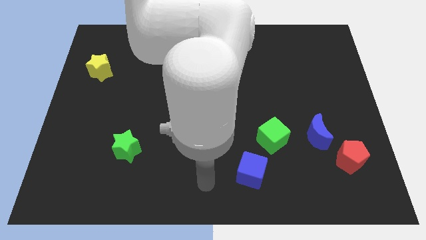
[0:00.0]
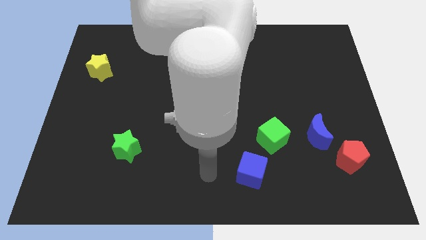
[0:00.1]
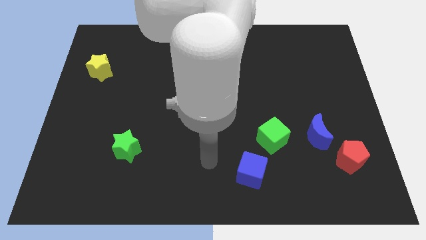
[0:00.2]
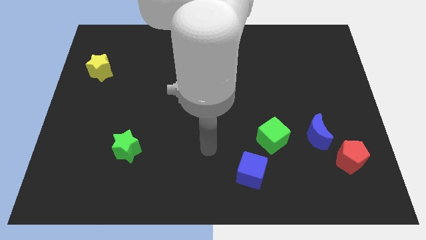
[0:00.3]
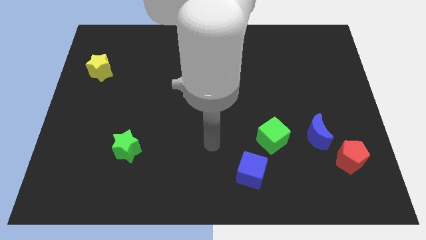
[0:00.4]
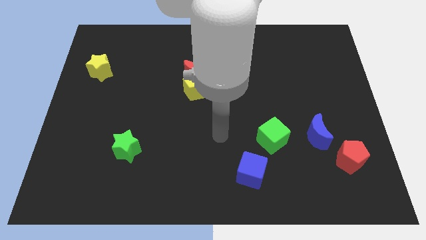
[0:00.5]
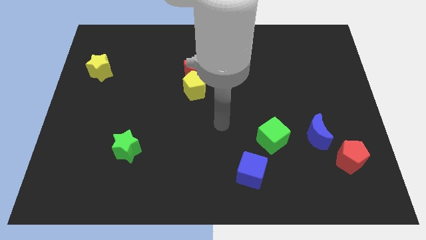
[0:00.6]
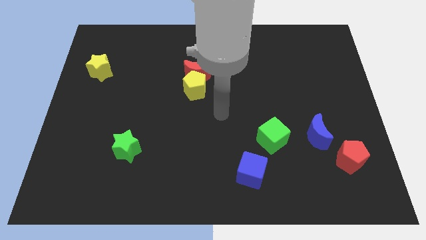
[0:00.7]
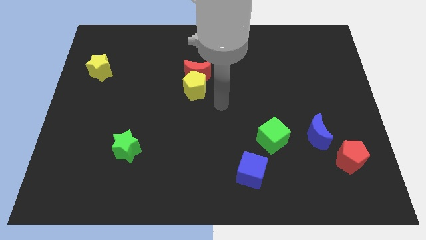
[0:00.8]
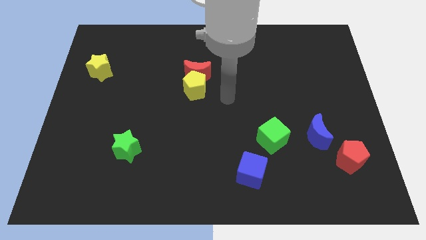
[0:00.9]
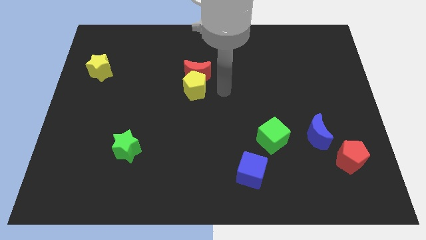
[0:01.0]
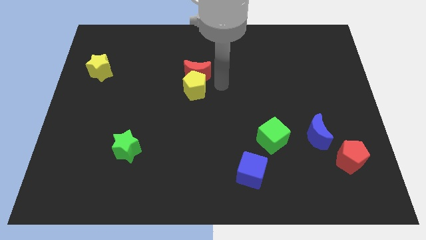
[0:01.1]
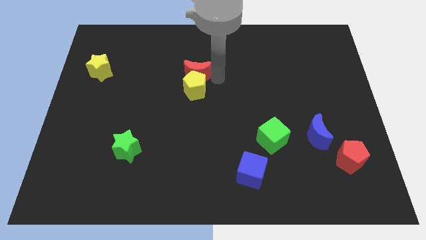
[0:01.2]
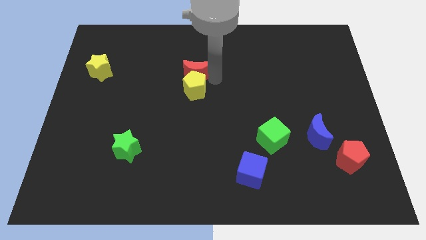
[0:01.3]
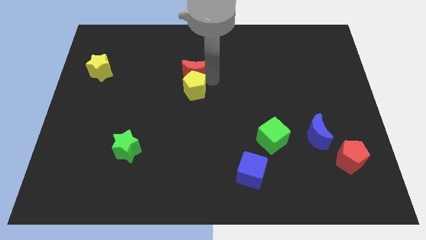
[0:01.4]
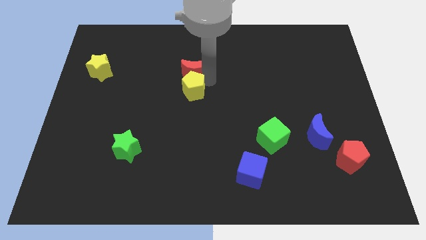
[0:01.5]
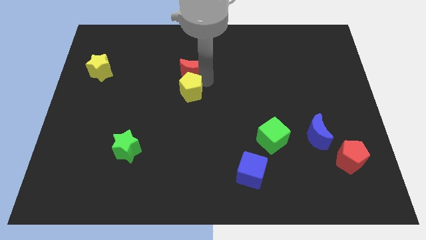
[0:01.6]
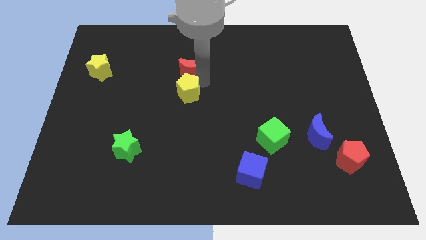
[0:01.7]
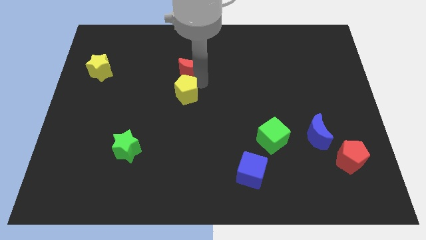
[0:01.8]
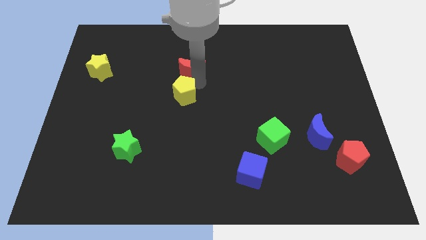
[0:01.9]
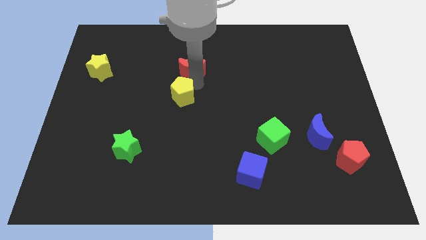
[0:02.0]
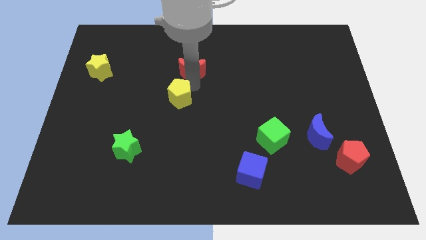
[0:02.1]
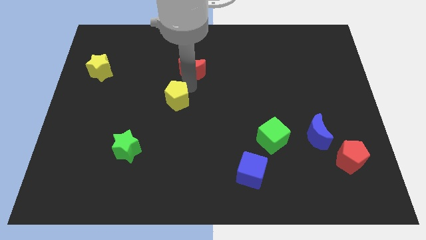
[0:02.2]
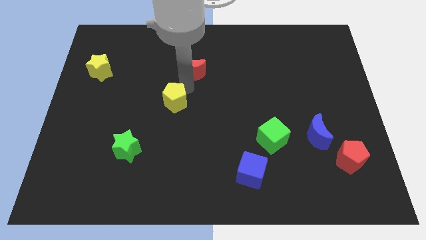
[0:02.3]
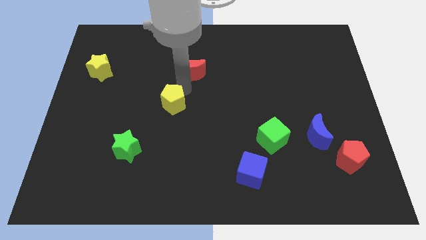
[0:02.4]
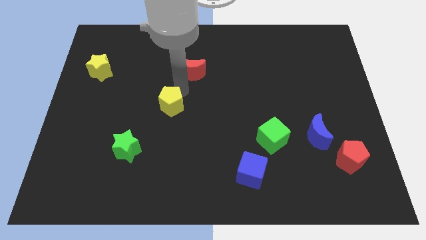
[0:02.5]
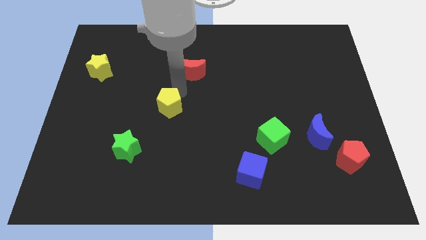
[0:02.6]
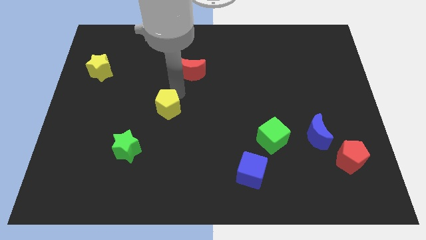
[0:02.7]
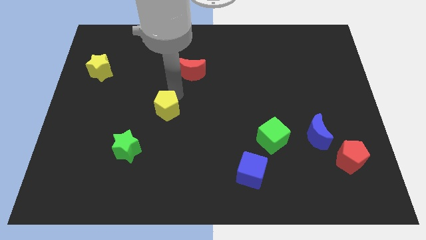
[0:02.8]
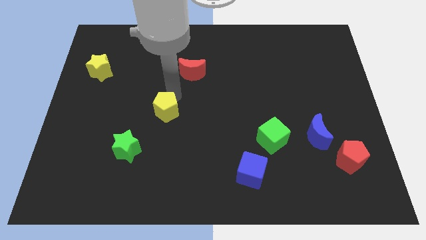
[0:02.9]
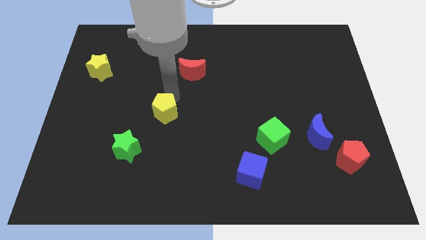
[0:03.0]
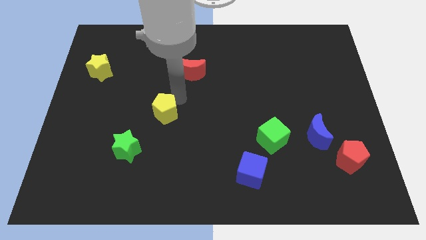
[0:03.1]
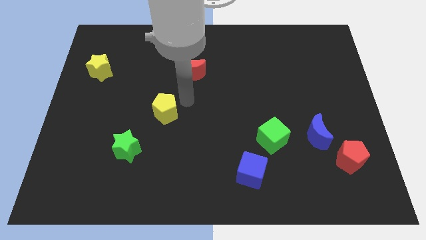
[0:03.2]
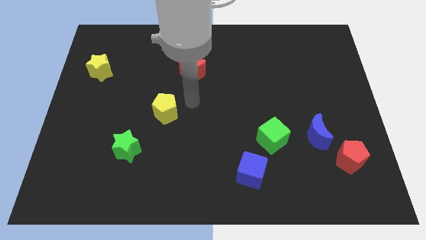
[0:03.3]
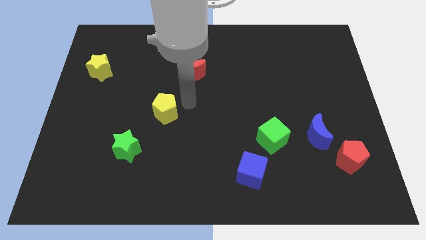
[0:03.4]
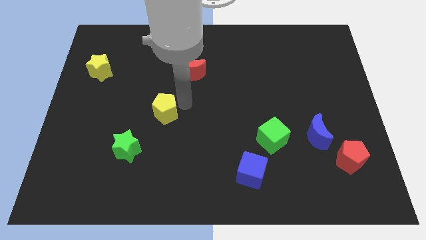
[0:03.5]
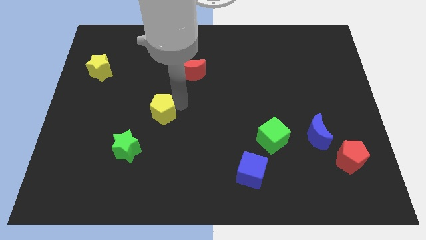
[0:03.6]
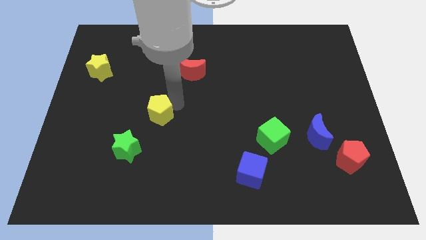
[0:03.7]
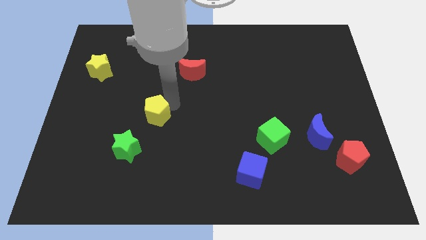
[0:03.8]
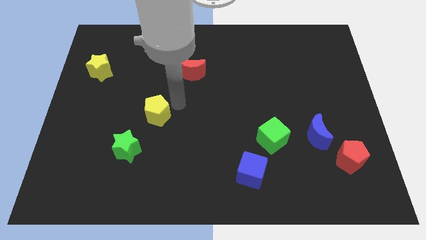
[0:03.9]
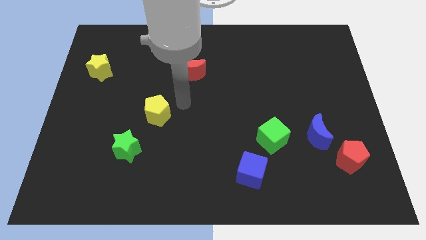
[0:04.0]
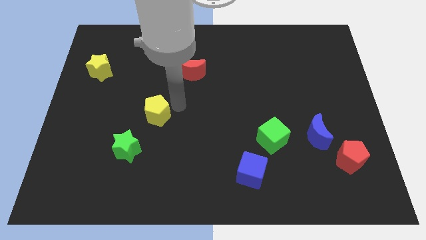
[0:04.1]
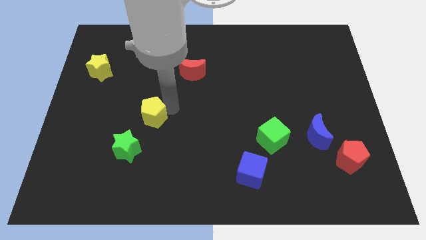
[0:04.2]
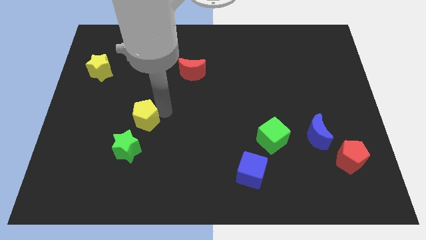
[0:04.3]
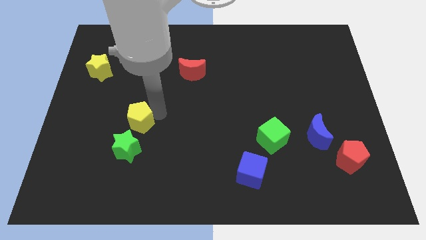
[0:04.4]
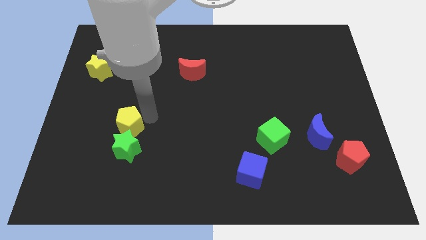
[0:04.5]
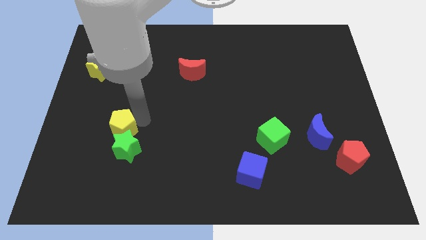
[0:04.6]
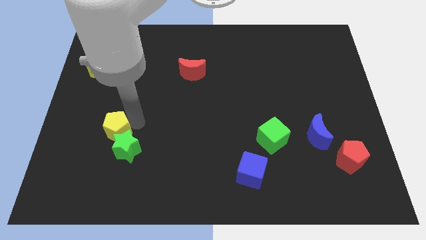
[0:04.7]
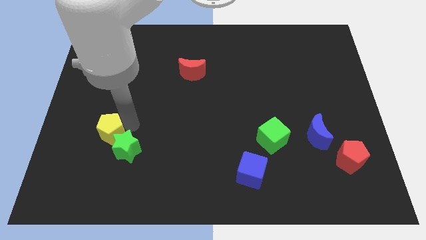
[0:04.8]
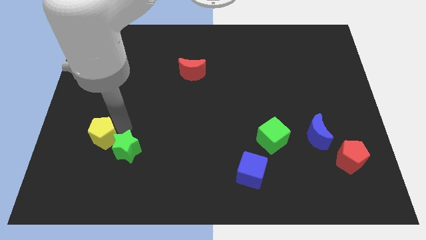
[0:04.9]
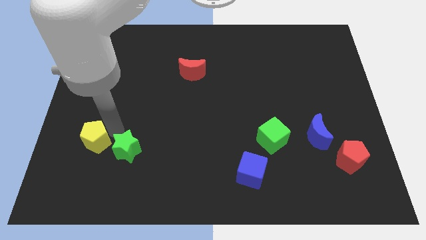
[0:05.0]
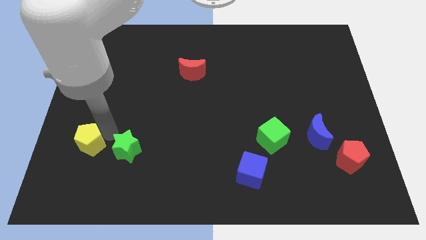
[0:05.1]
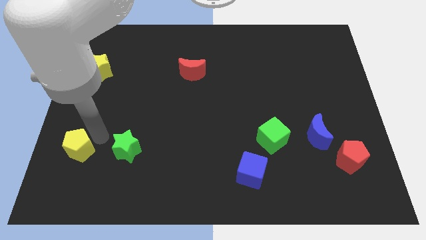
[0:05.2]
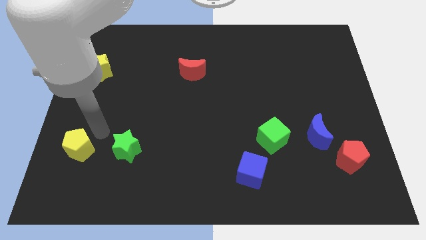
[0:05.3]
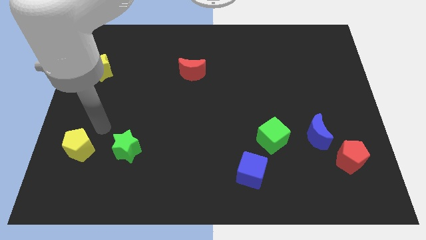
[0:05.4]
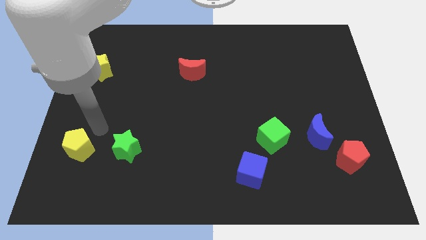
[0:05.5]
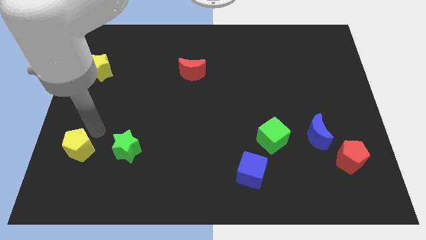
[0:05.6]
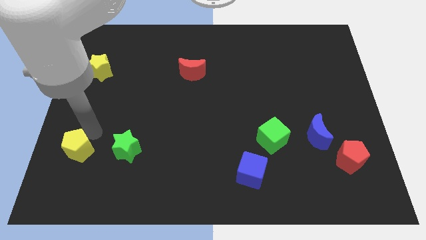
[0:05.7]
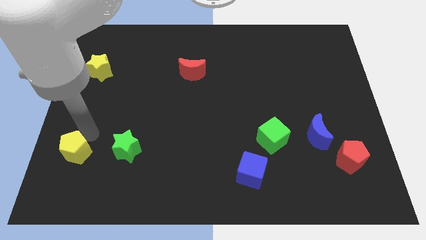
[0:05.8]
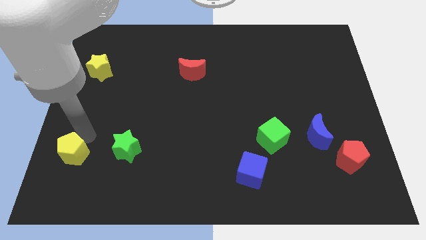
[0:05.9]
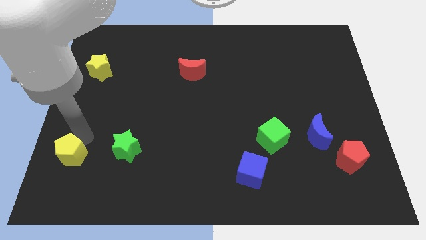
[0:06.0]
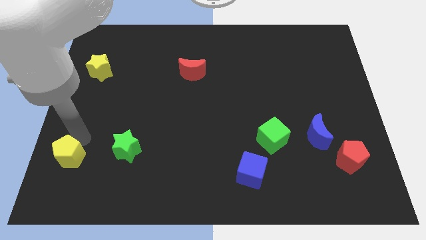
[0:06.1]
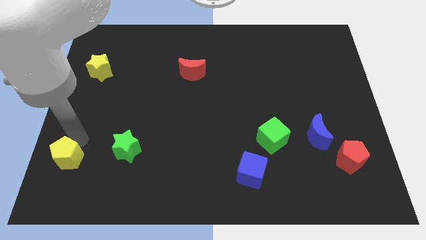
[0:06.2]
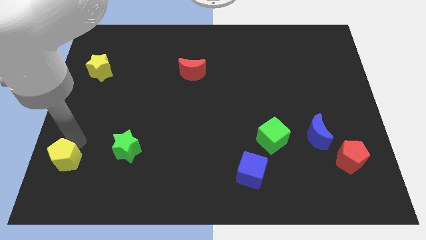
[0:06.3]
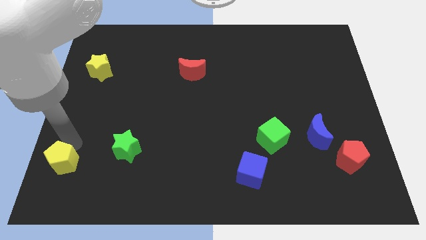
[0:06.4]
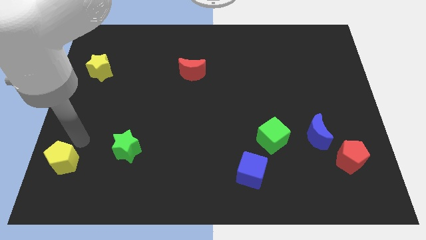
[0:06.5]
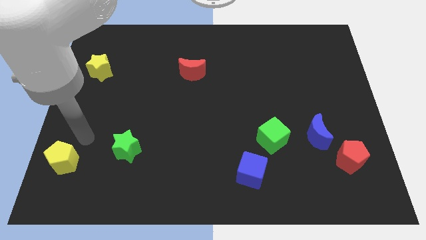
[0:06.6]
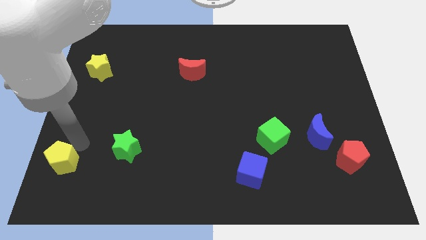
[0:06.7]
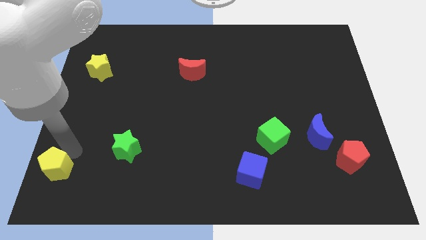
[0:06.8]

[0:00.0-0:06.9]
move the yellow pentagon to the lower left corner
